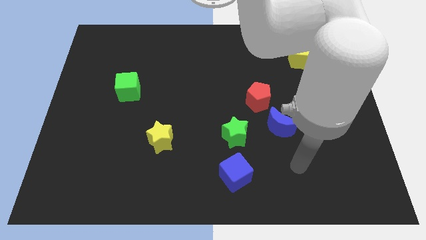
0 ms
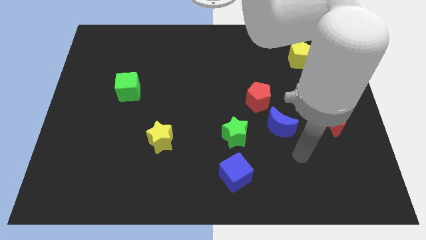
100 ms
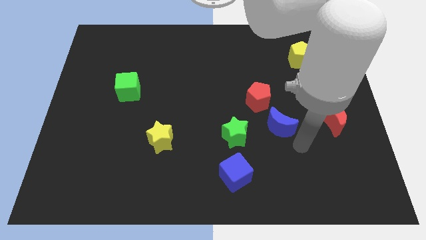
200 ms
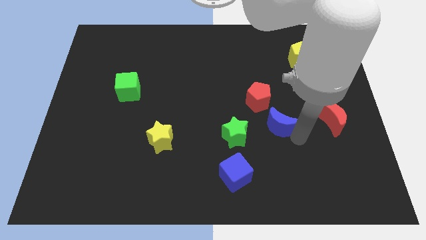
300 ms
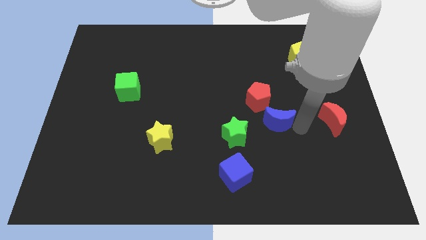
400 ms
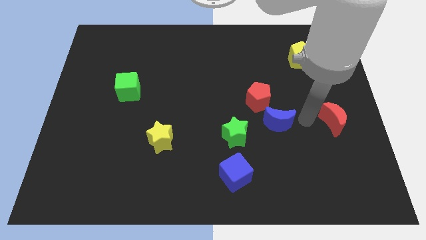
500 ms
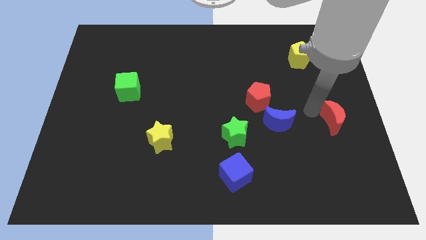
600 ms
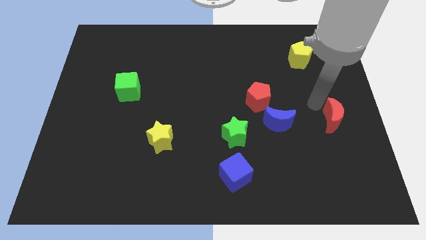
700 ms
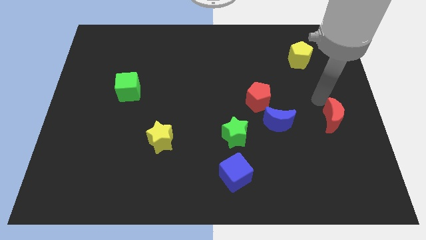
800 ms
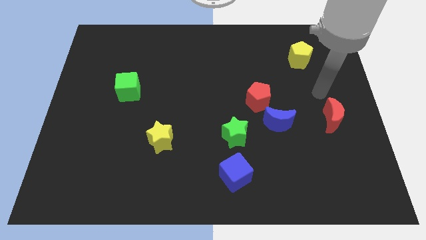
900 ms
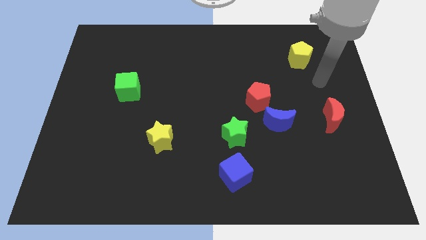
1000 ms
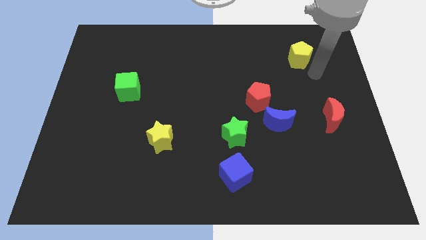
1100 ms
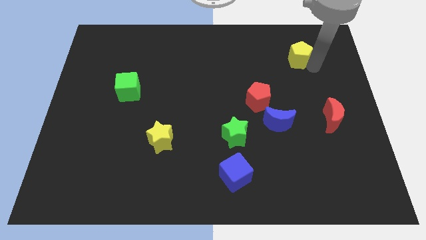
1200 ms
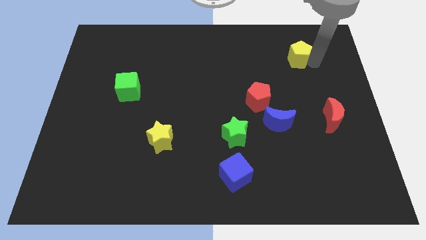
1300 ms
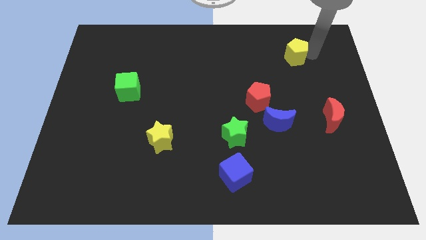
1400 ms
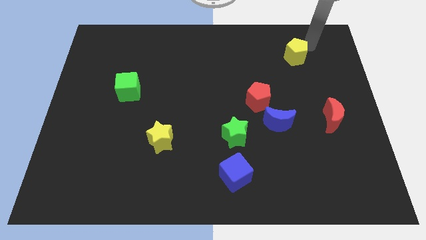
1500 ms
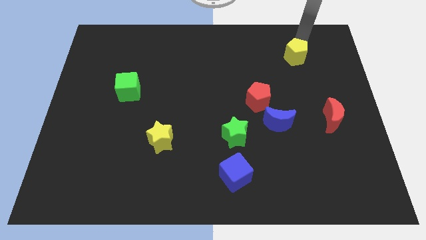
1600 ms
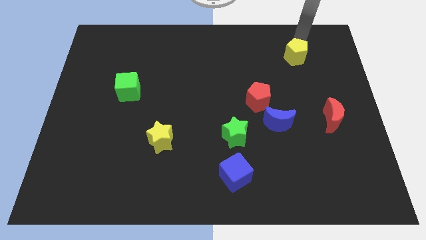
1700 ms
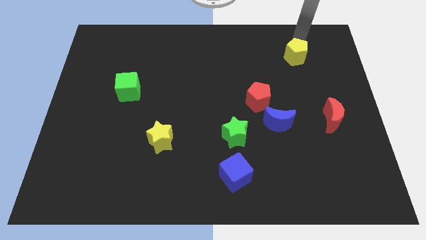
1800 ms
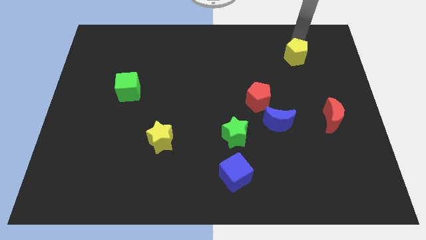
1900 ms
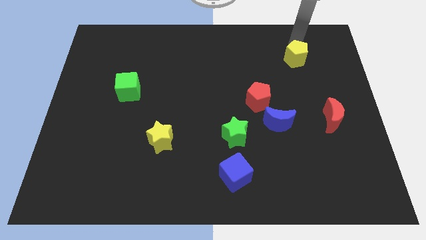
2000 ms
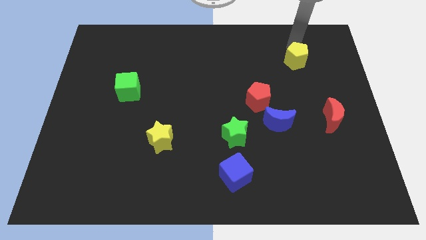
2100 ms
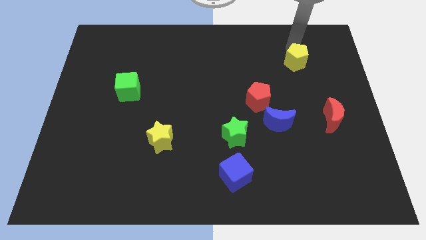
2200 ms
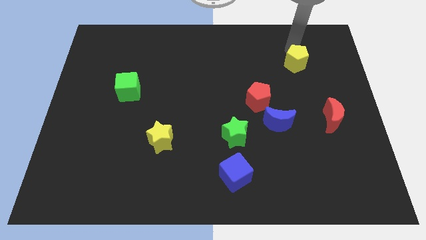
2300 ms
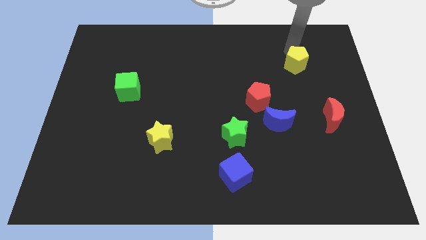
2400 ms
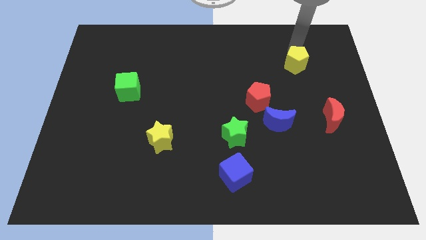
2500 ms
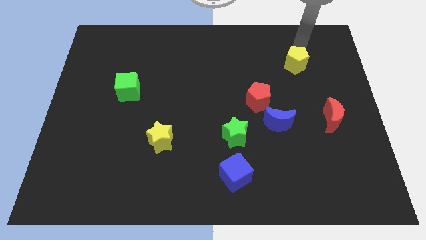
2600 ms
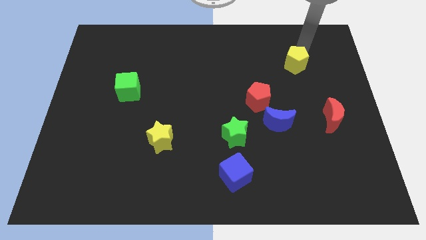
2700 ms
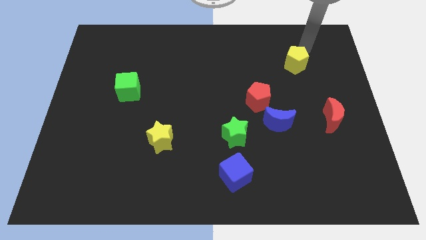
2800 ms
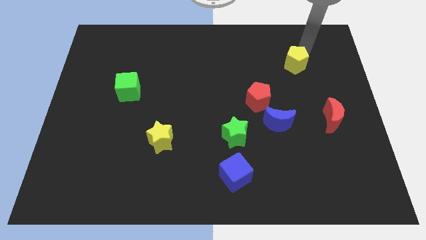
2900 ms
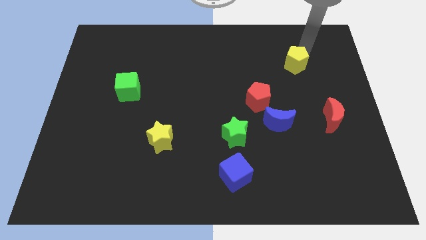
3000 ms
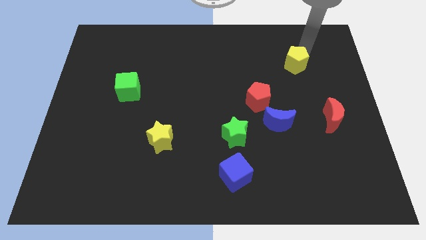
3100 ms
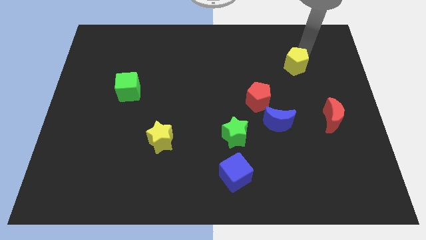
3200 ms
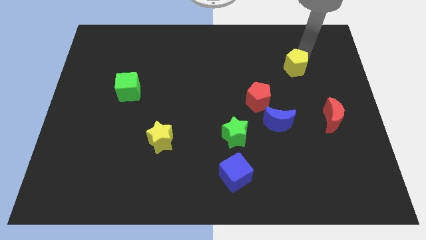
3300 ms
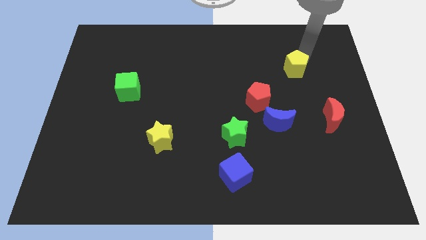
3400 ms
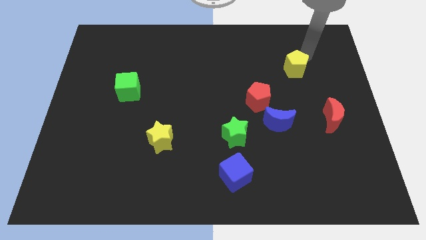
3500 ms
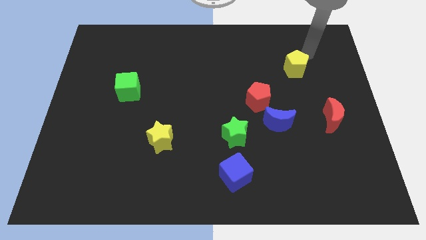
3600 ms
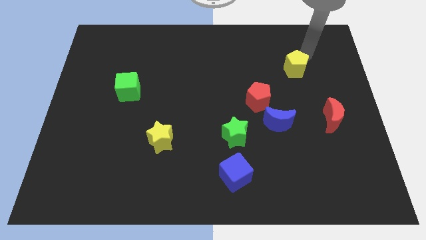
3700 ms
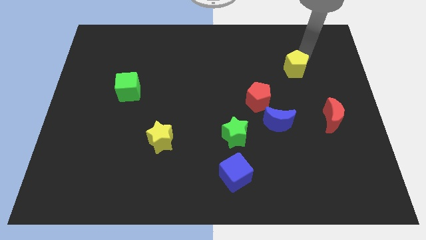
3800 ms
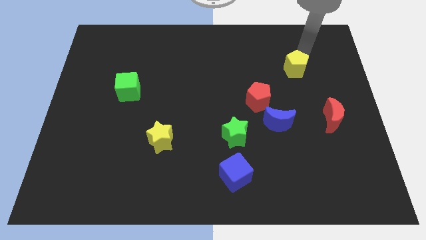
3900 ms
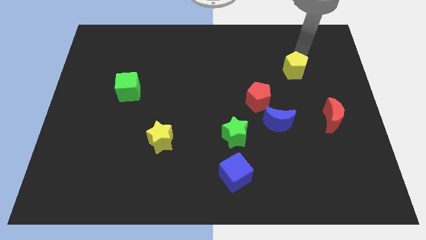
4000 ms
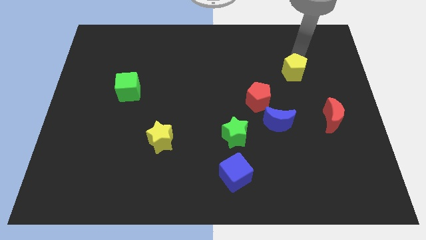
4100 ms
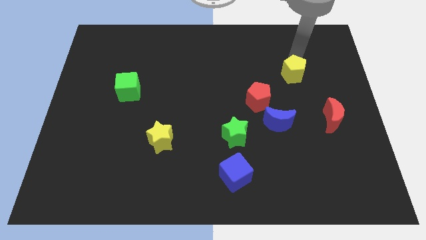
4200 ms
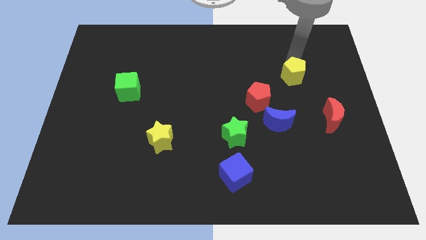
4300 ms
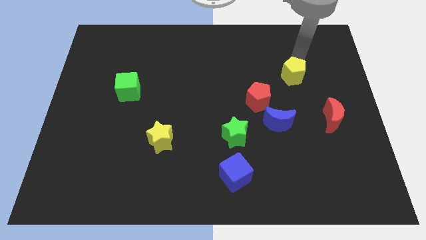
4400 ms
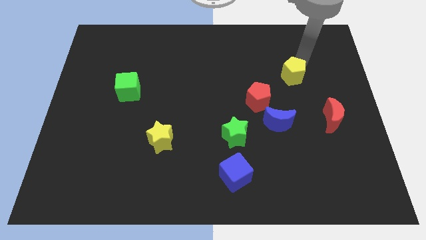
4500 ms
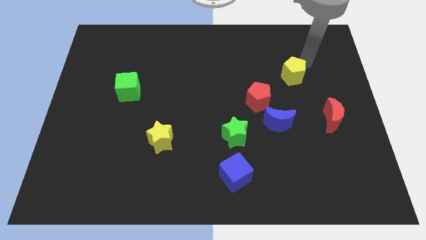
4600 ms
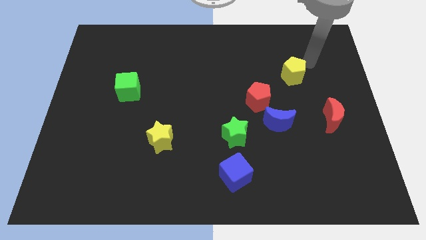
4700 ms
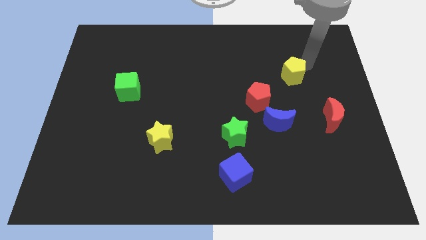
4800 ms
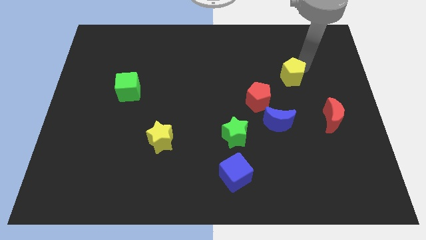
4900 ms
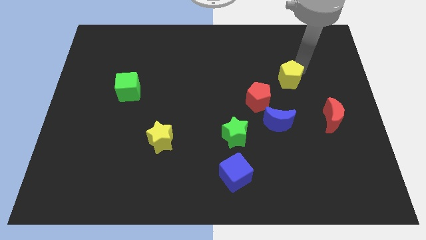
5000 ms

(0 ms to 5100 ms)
move the yellow pentagon above the blue moon

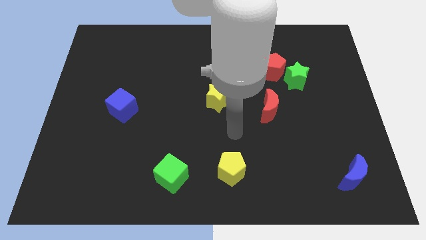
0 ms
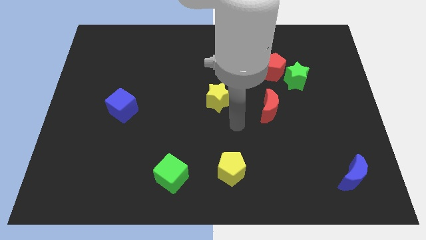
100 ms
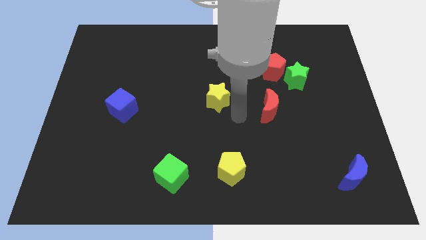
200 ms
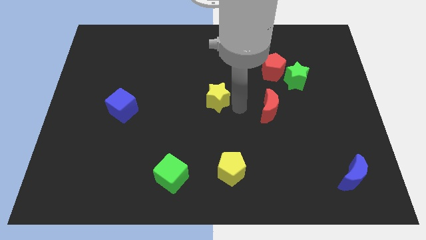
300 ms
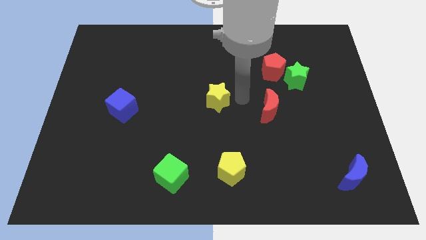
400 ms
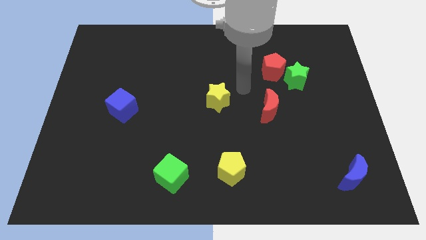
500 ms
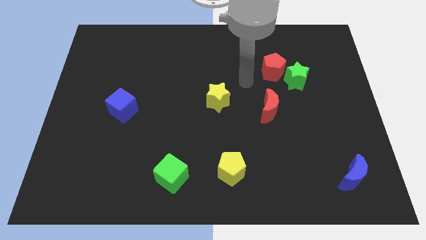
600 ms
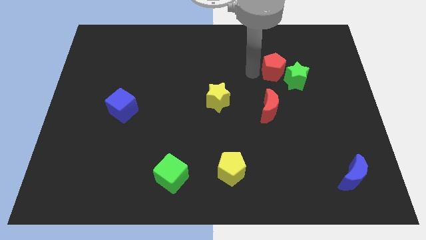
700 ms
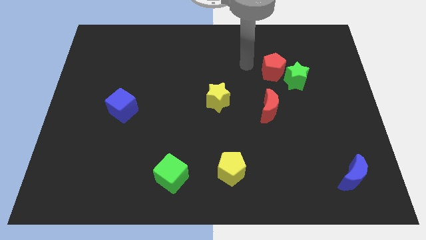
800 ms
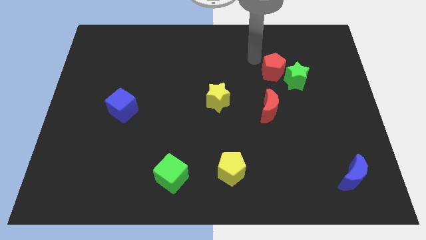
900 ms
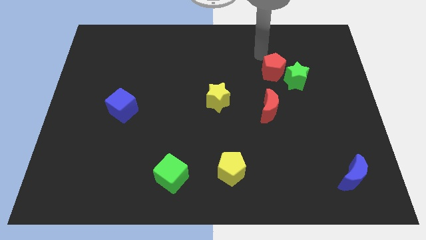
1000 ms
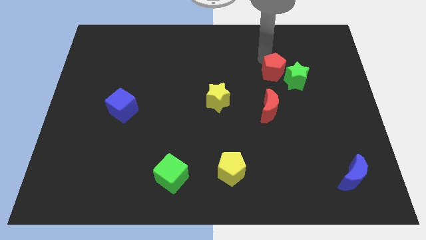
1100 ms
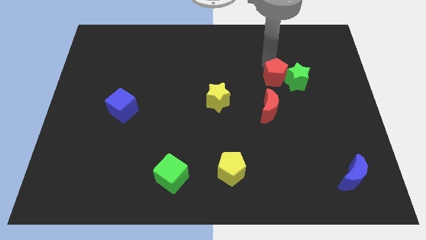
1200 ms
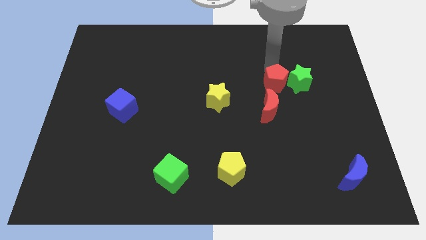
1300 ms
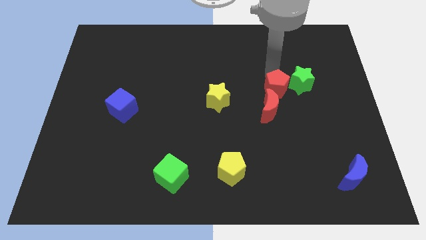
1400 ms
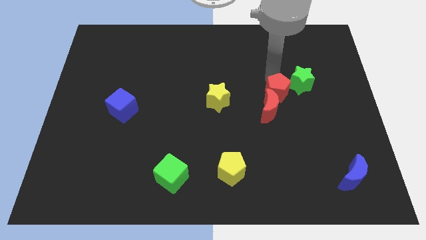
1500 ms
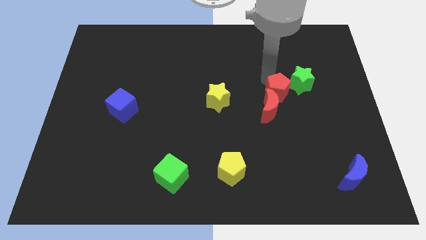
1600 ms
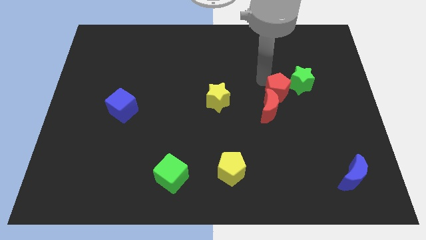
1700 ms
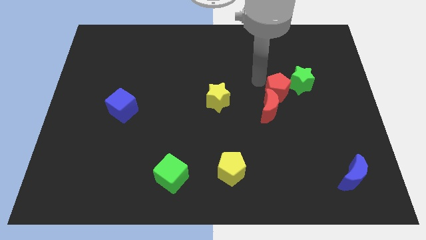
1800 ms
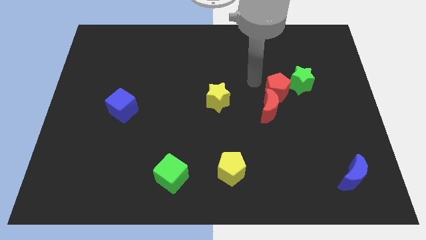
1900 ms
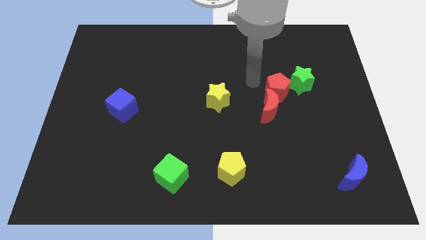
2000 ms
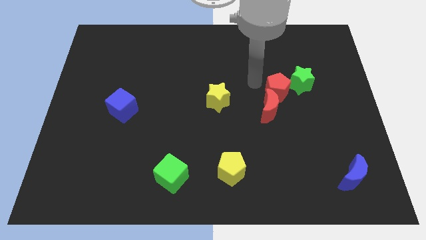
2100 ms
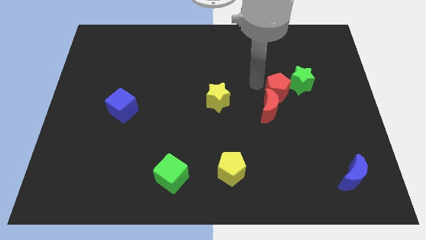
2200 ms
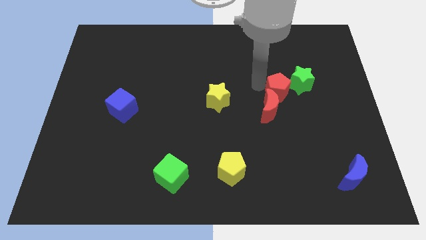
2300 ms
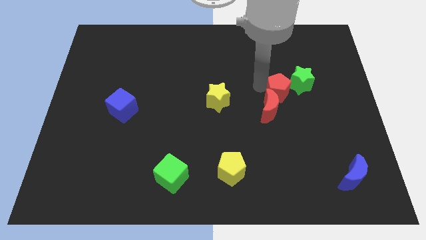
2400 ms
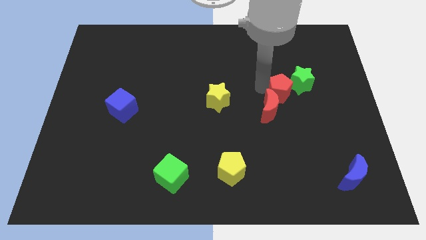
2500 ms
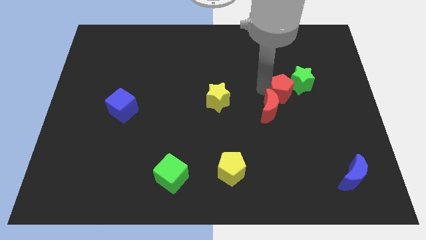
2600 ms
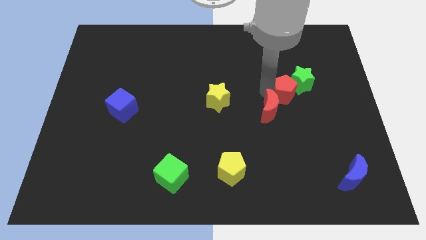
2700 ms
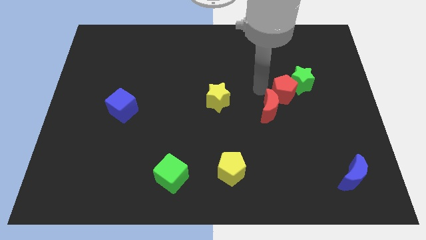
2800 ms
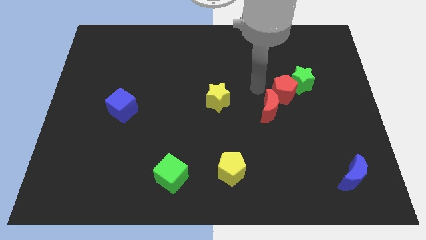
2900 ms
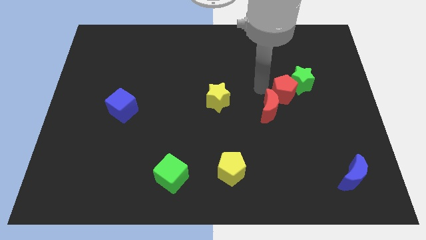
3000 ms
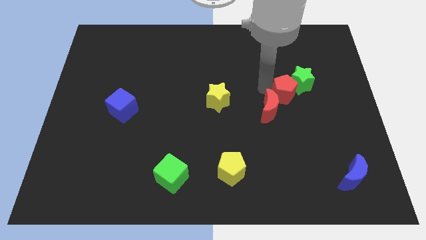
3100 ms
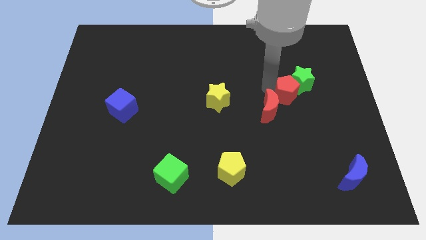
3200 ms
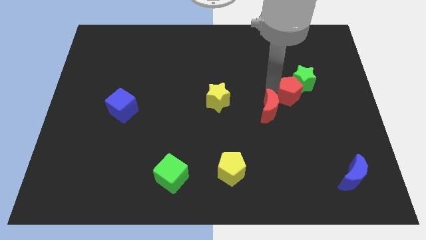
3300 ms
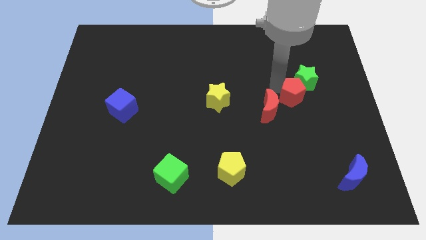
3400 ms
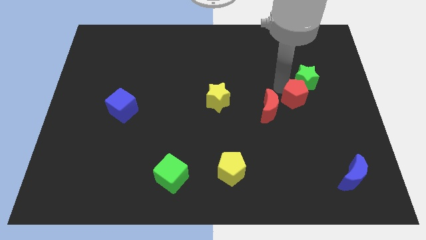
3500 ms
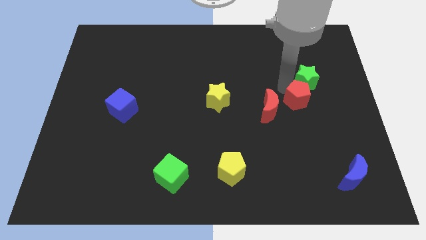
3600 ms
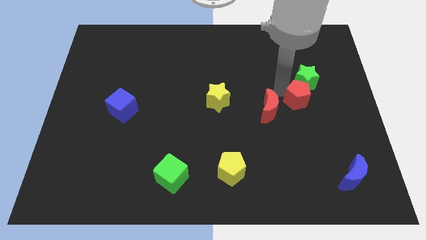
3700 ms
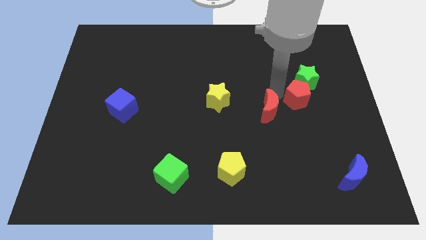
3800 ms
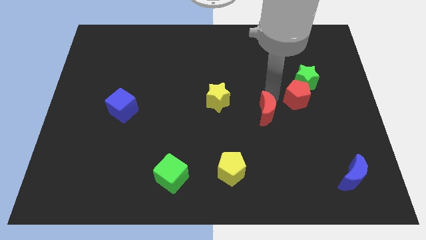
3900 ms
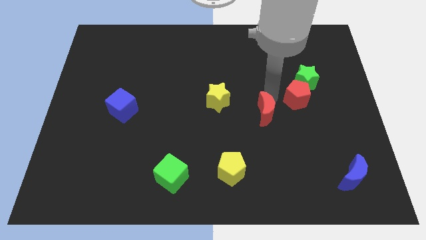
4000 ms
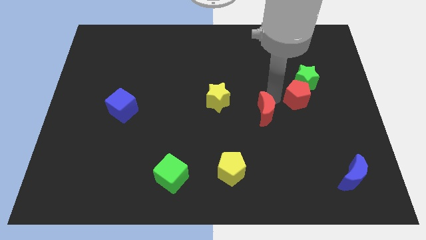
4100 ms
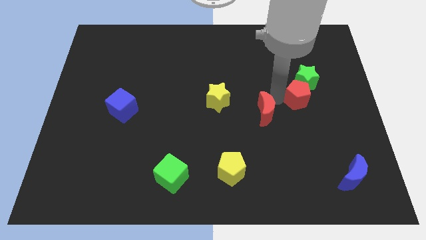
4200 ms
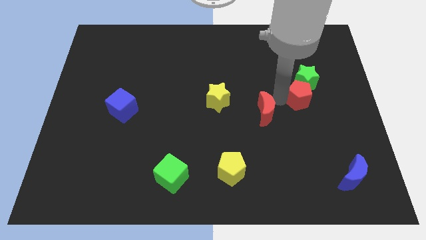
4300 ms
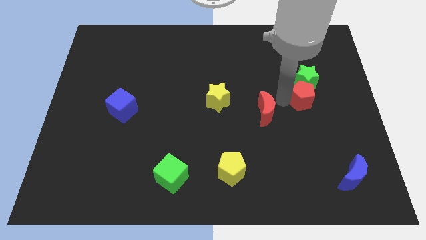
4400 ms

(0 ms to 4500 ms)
slide the red pentagon diagonally down and to the right of the green star
